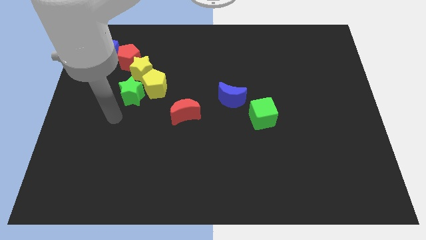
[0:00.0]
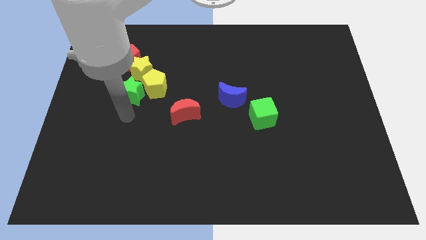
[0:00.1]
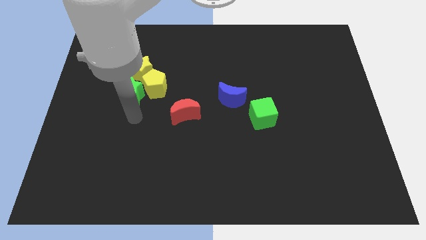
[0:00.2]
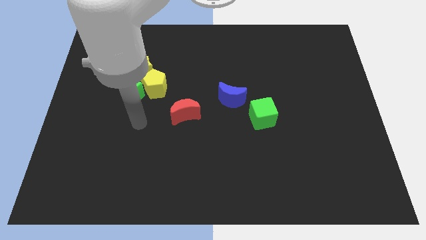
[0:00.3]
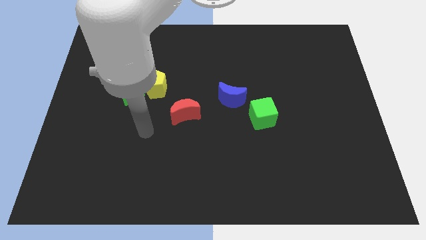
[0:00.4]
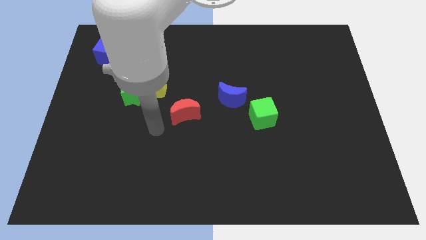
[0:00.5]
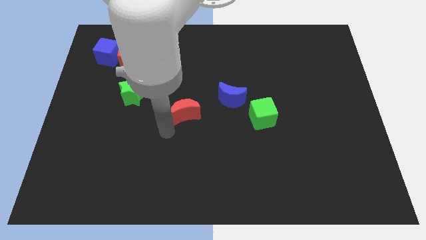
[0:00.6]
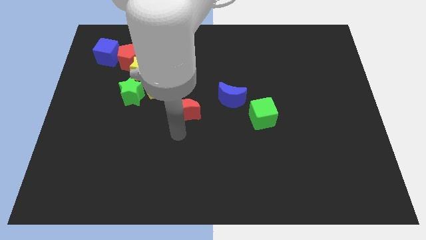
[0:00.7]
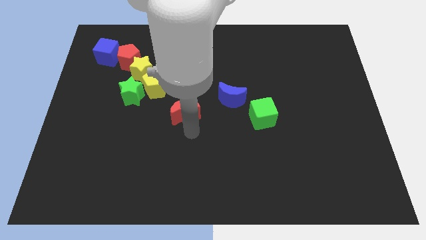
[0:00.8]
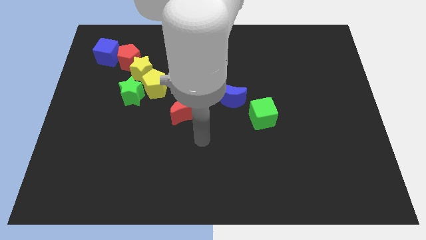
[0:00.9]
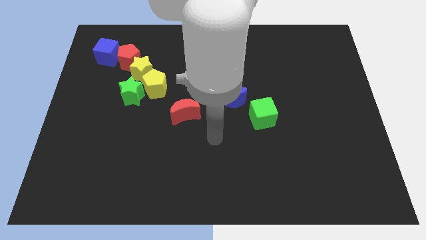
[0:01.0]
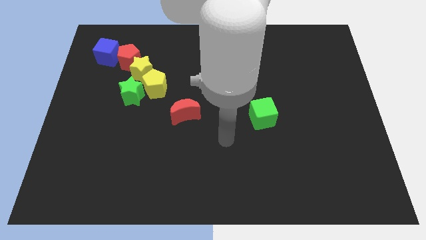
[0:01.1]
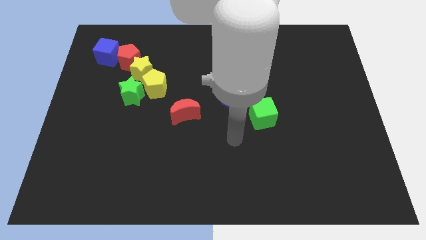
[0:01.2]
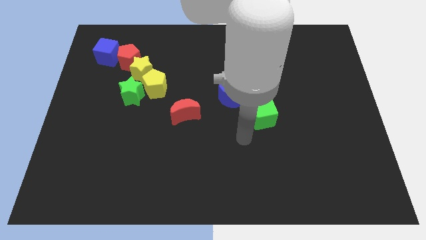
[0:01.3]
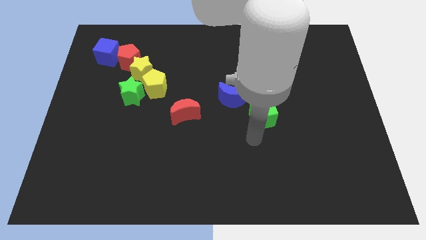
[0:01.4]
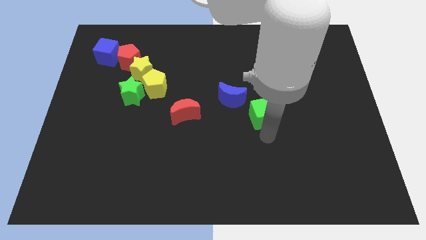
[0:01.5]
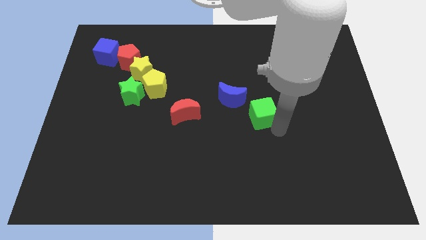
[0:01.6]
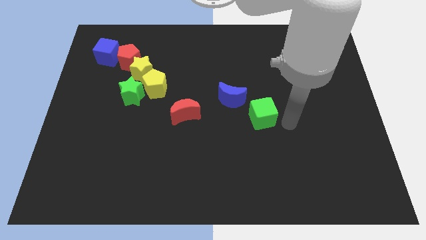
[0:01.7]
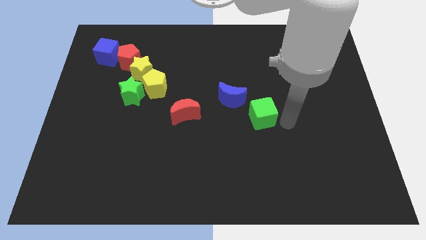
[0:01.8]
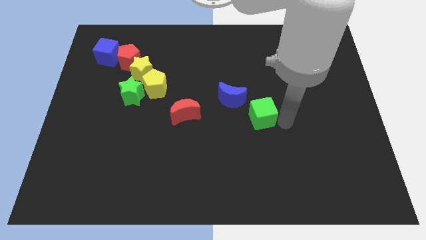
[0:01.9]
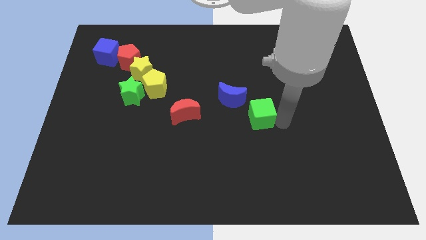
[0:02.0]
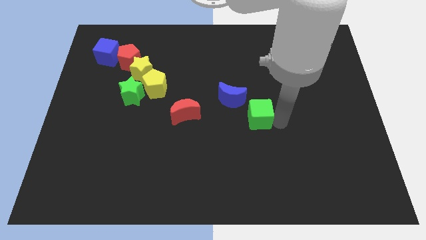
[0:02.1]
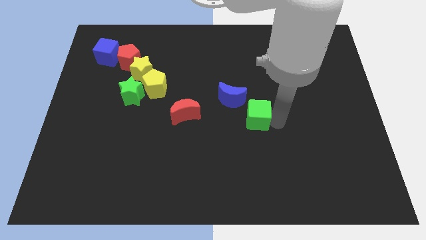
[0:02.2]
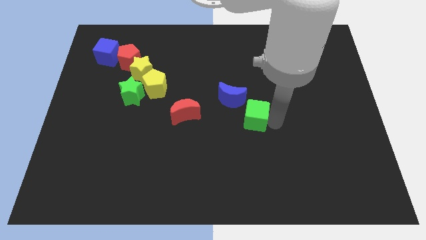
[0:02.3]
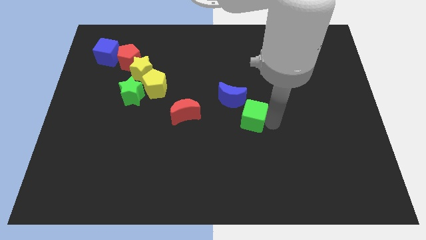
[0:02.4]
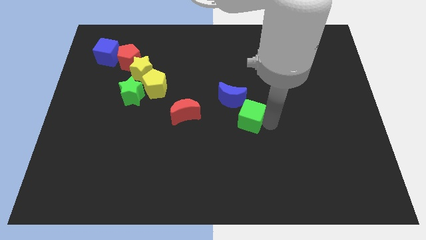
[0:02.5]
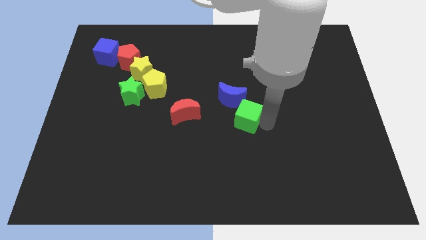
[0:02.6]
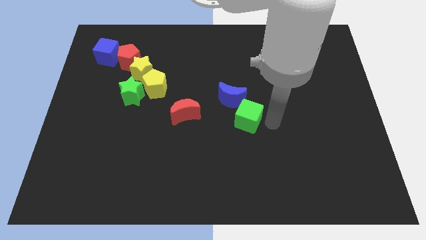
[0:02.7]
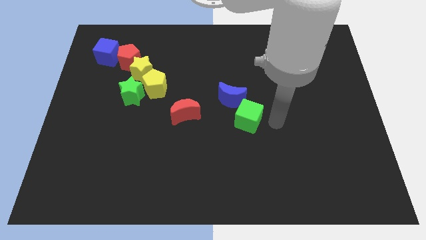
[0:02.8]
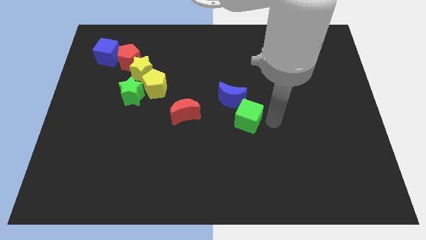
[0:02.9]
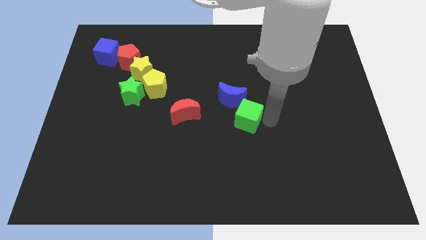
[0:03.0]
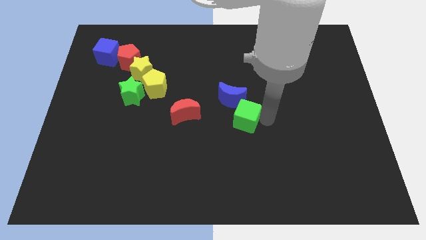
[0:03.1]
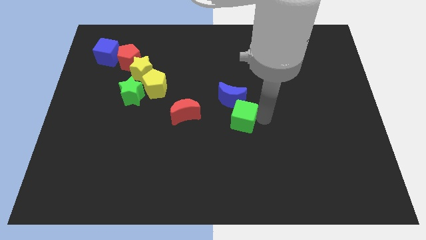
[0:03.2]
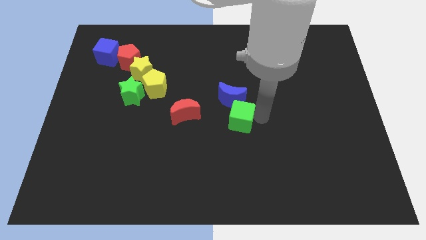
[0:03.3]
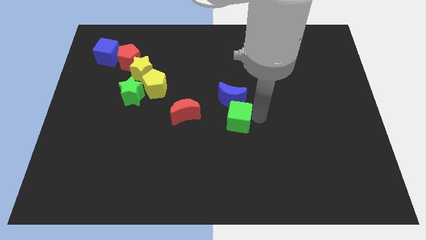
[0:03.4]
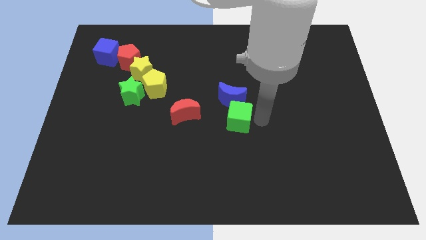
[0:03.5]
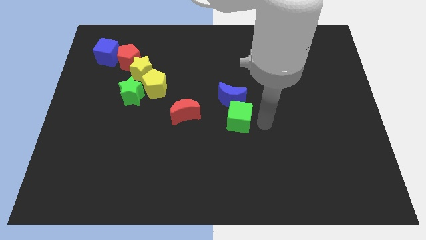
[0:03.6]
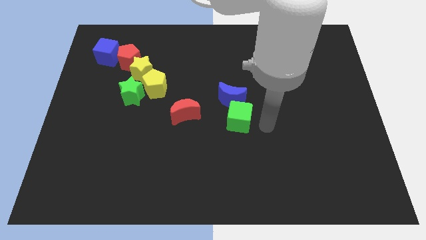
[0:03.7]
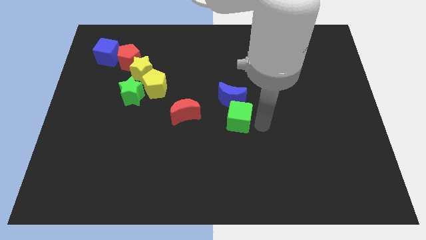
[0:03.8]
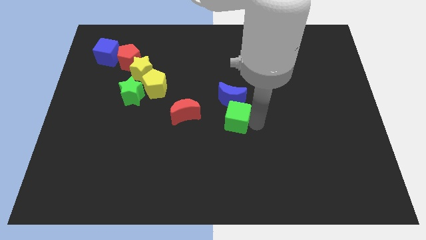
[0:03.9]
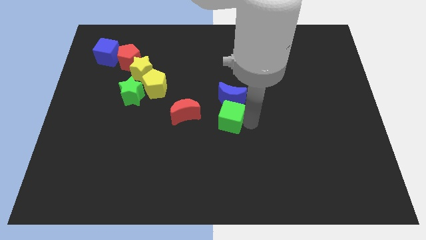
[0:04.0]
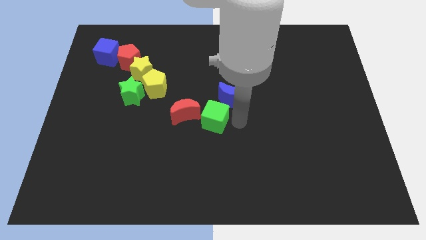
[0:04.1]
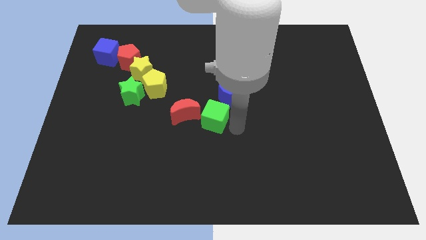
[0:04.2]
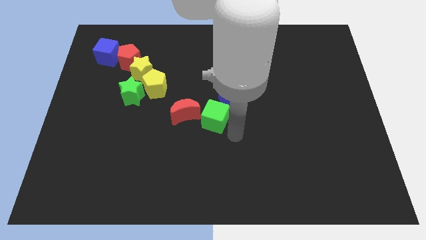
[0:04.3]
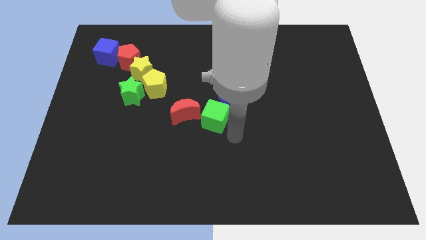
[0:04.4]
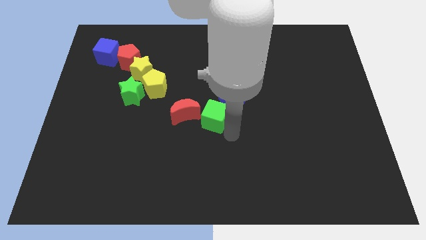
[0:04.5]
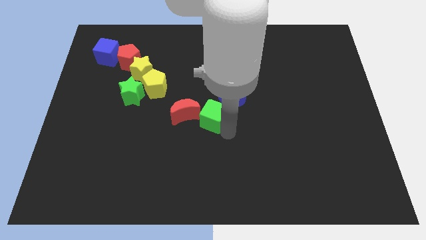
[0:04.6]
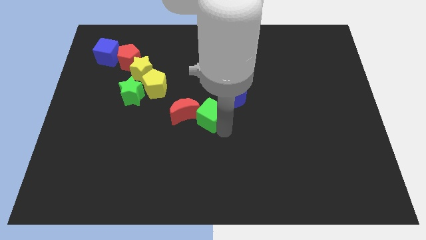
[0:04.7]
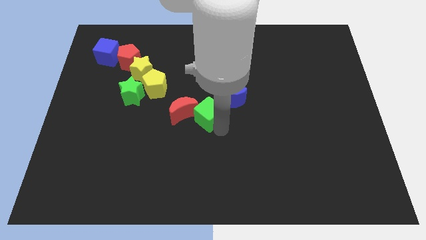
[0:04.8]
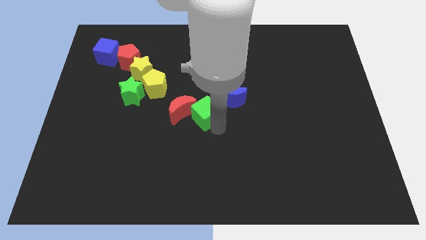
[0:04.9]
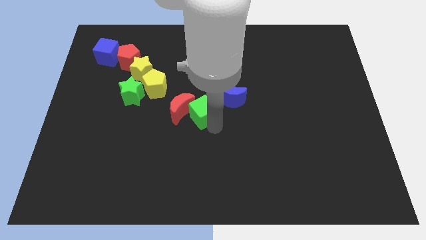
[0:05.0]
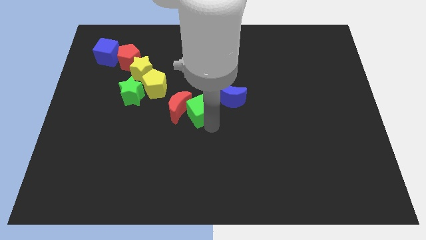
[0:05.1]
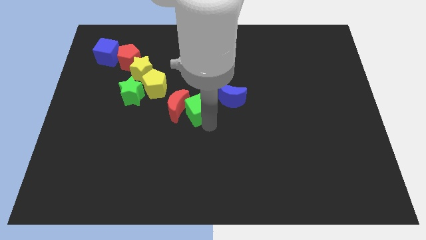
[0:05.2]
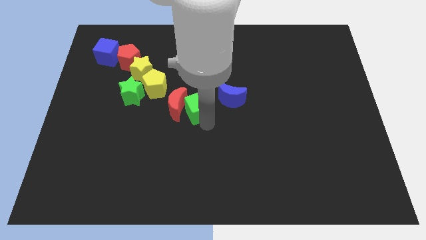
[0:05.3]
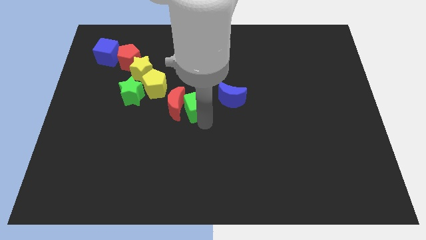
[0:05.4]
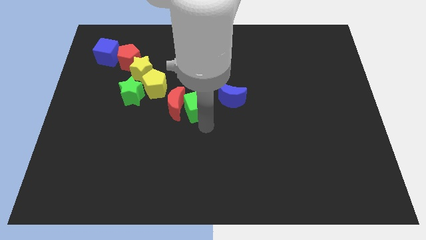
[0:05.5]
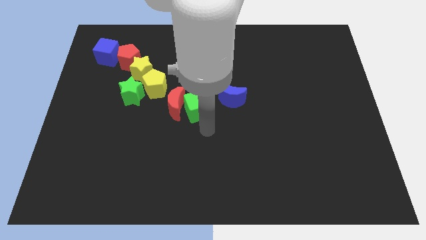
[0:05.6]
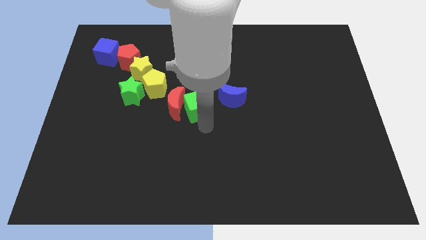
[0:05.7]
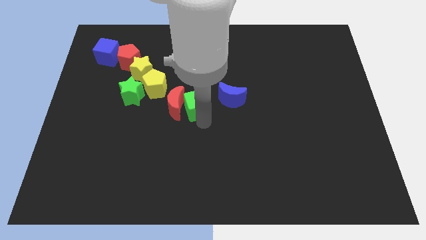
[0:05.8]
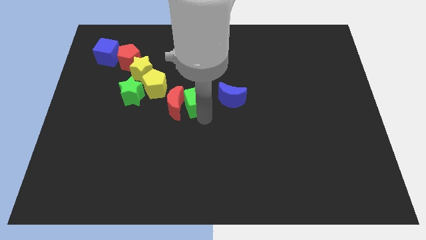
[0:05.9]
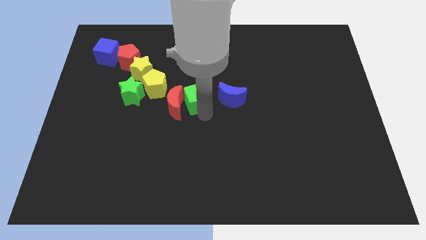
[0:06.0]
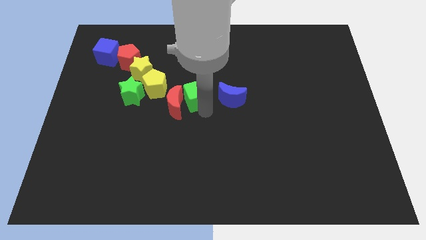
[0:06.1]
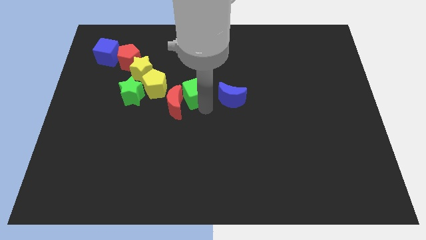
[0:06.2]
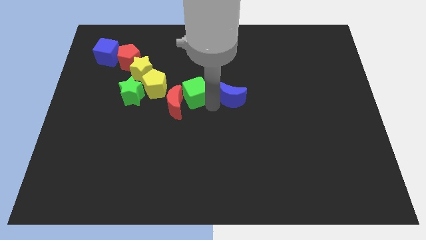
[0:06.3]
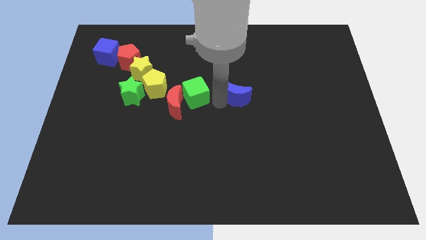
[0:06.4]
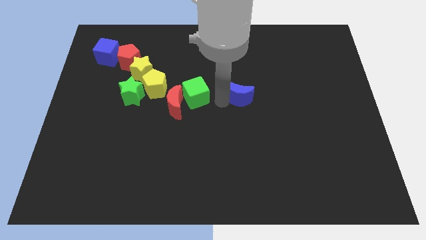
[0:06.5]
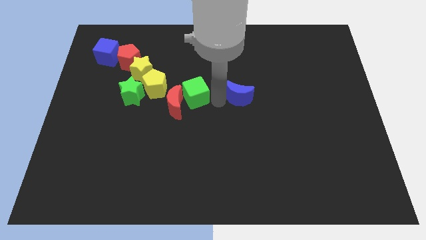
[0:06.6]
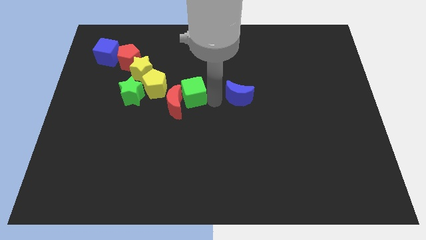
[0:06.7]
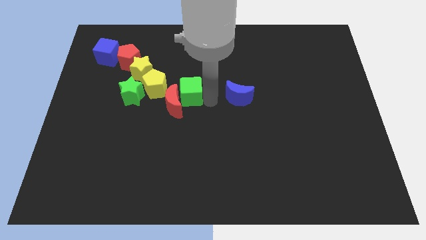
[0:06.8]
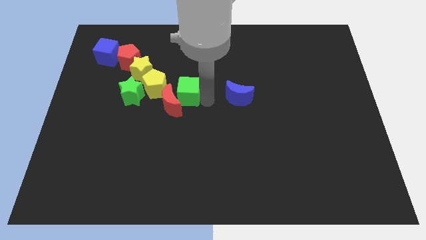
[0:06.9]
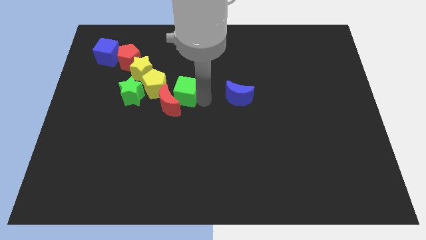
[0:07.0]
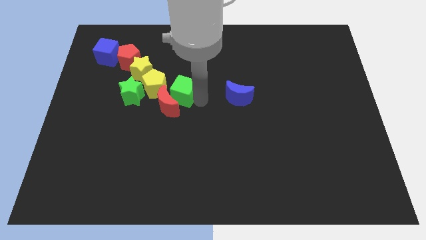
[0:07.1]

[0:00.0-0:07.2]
move the green cube diagonally down and to the right of the yellow star
